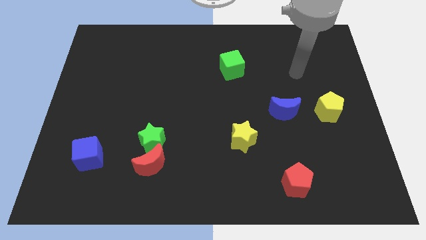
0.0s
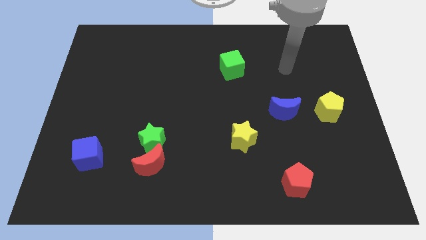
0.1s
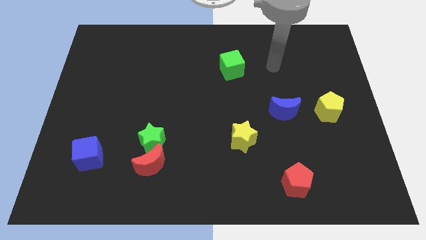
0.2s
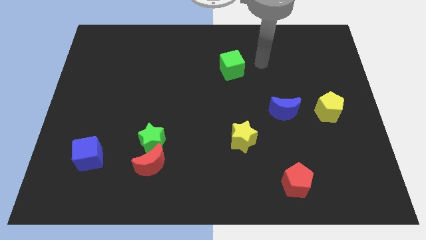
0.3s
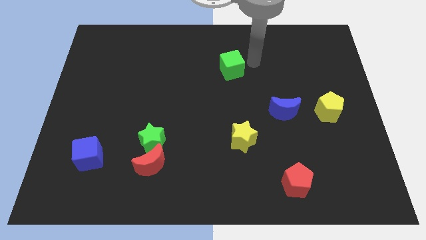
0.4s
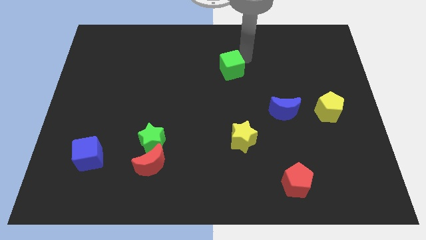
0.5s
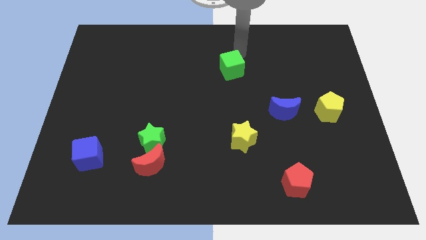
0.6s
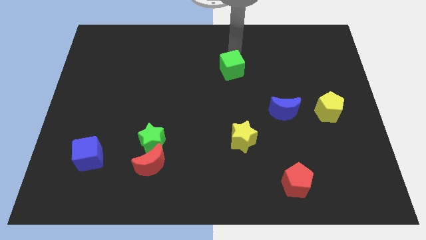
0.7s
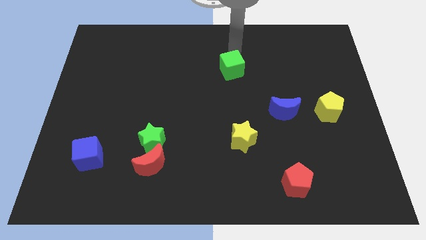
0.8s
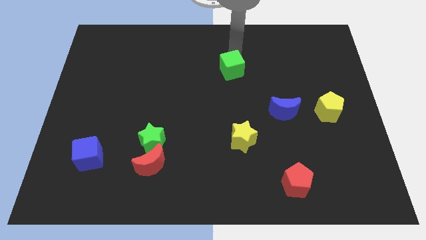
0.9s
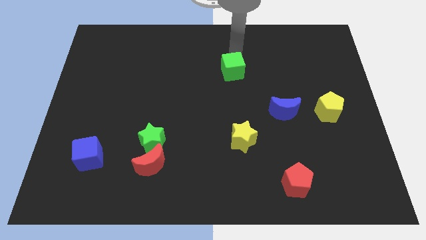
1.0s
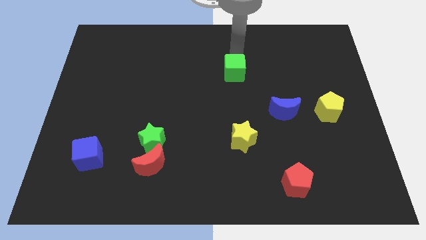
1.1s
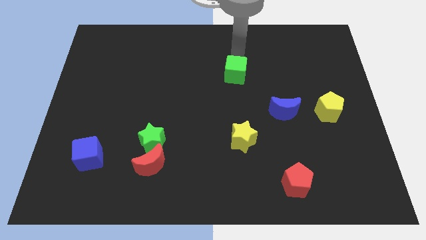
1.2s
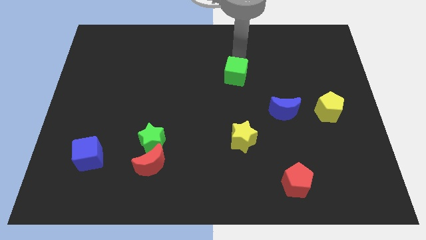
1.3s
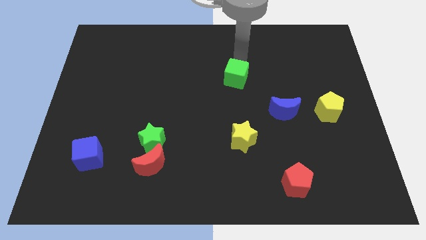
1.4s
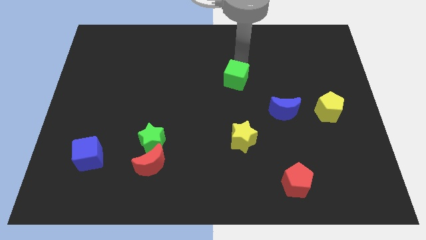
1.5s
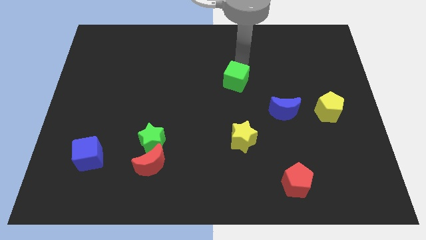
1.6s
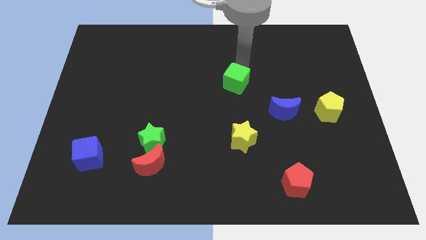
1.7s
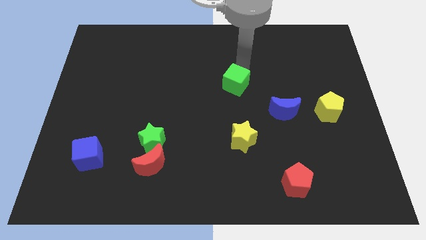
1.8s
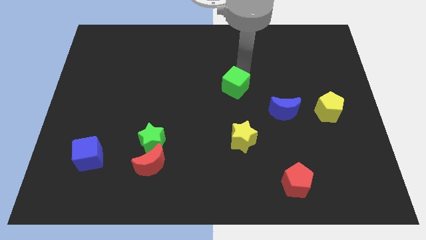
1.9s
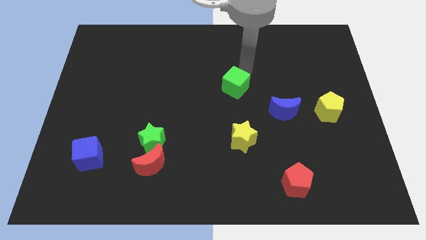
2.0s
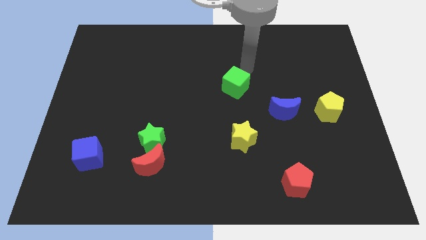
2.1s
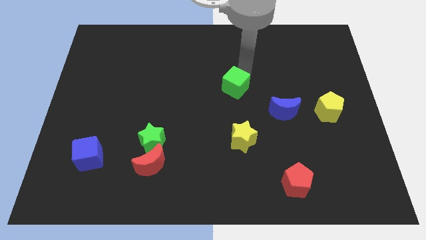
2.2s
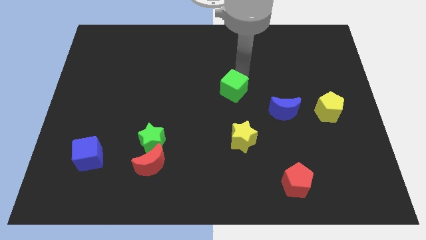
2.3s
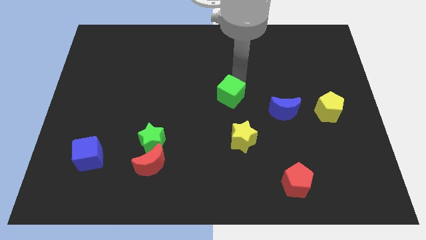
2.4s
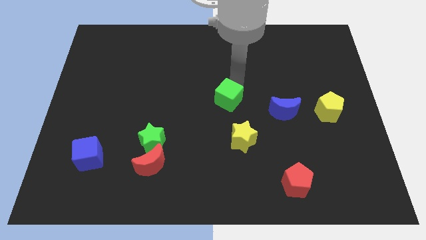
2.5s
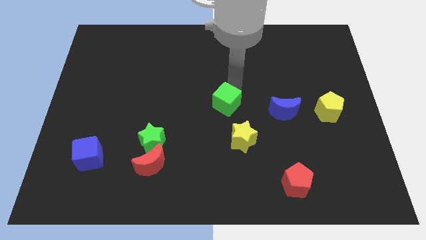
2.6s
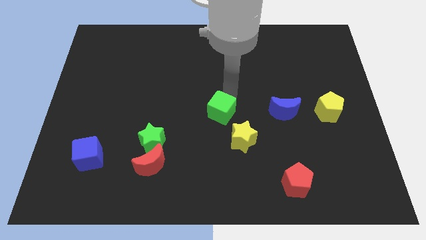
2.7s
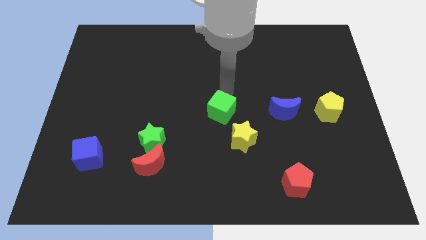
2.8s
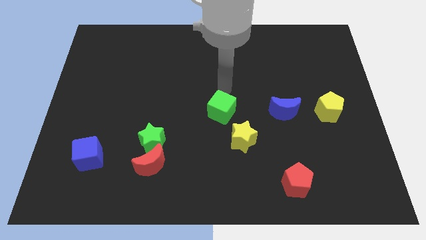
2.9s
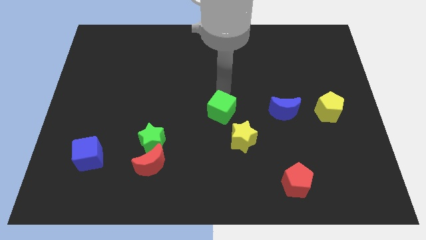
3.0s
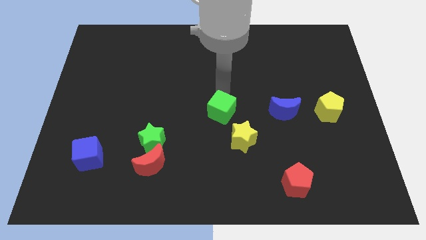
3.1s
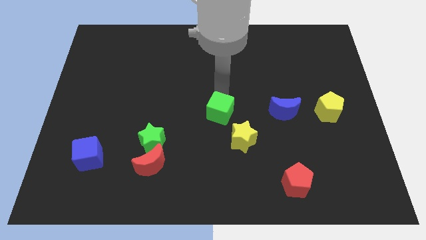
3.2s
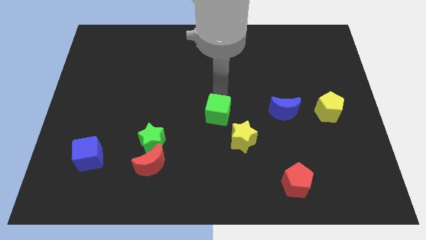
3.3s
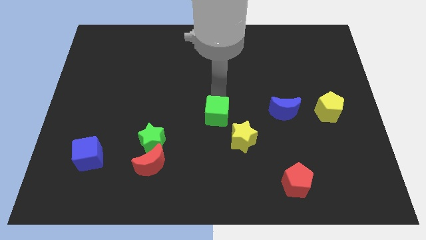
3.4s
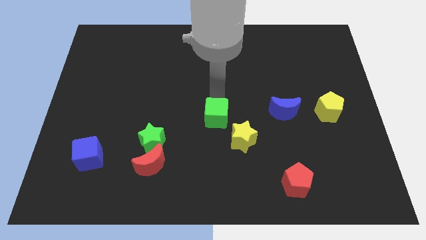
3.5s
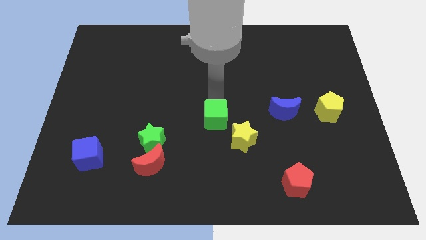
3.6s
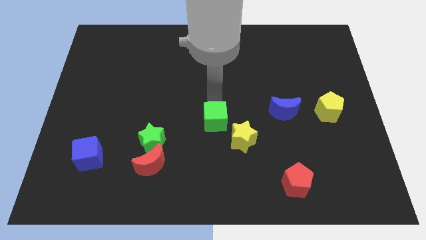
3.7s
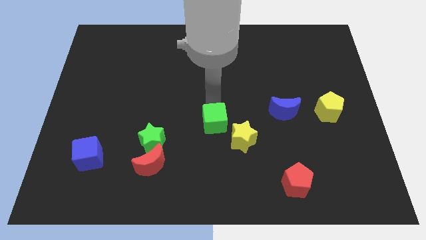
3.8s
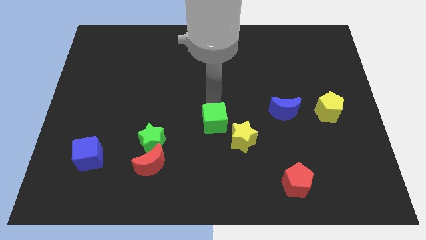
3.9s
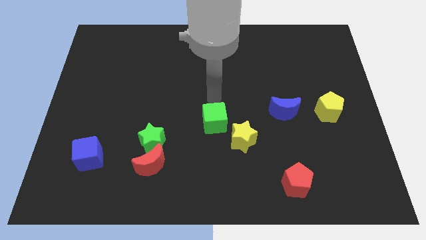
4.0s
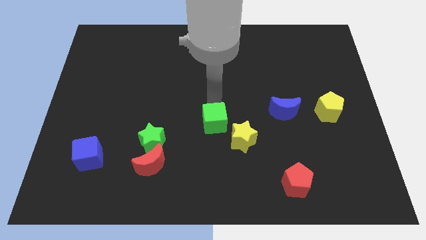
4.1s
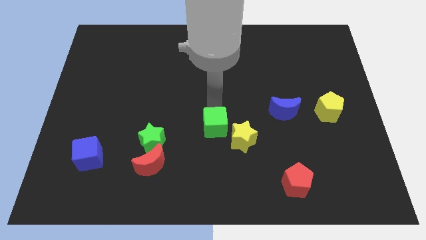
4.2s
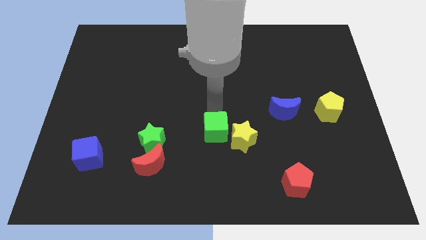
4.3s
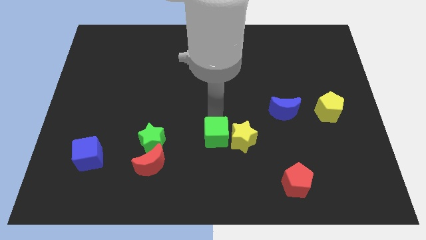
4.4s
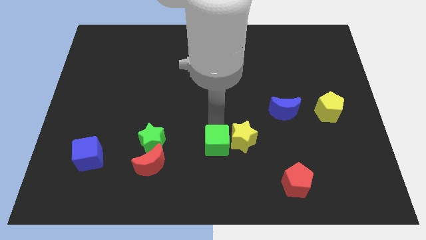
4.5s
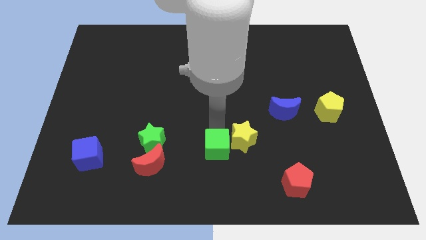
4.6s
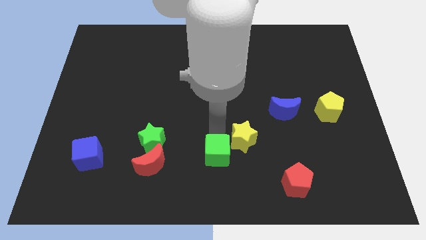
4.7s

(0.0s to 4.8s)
slide the green cube to the bottom

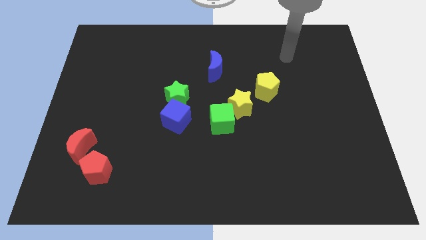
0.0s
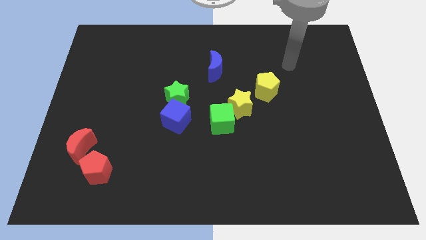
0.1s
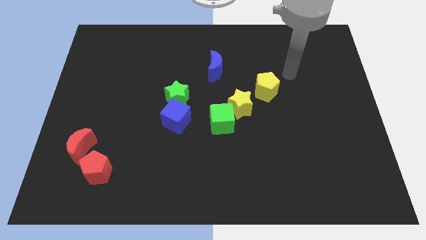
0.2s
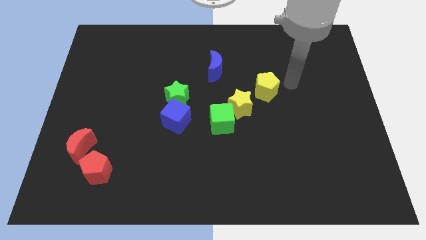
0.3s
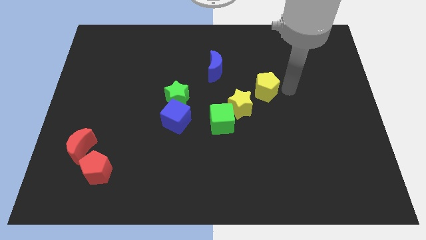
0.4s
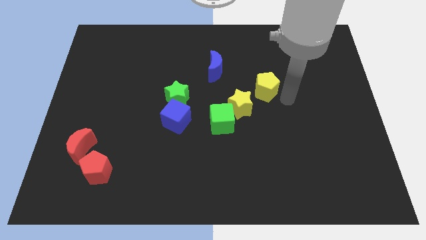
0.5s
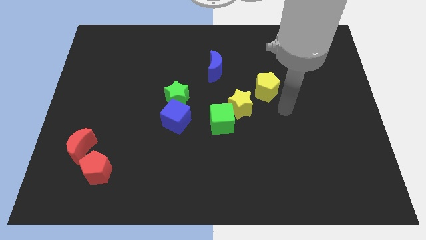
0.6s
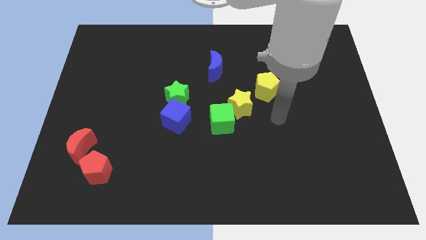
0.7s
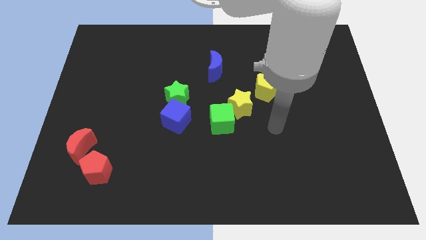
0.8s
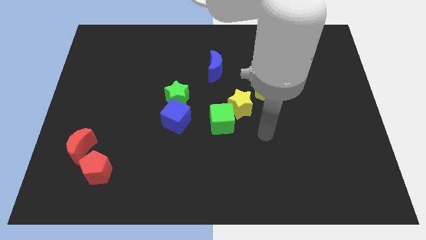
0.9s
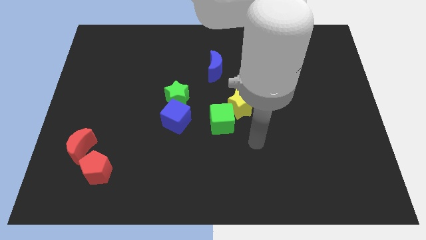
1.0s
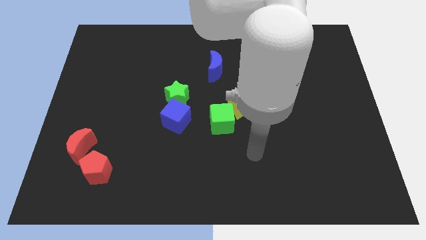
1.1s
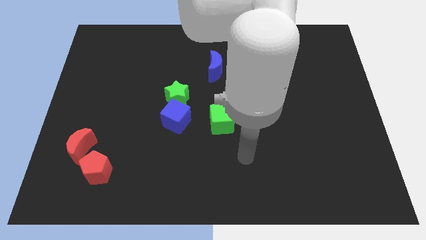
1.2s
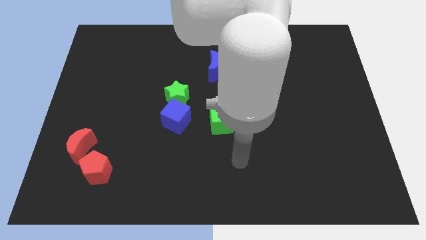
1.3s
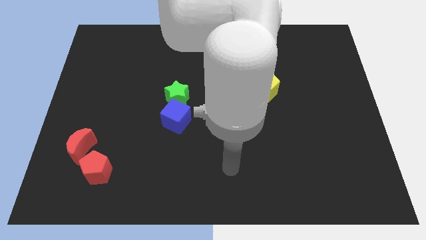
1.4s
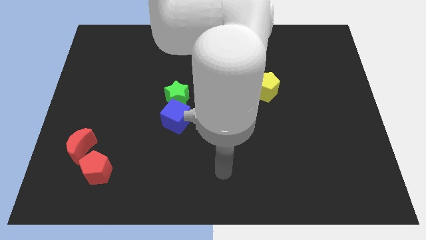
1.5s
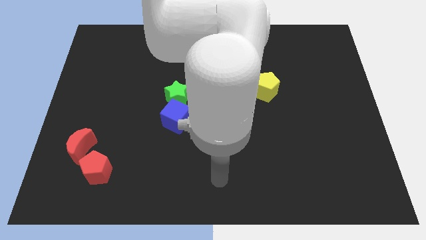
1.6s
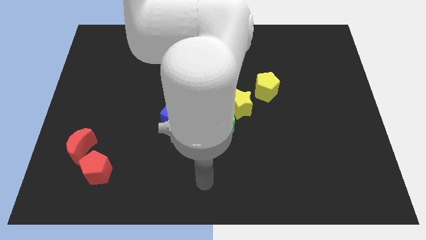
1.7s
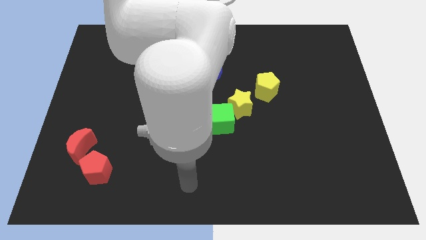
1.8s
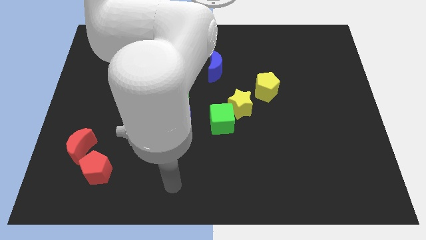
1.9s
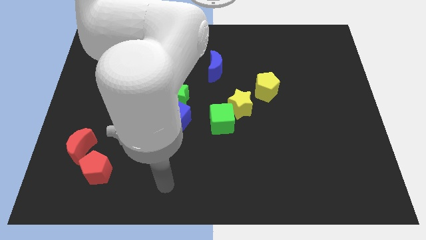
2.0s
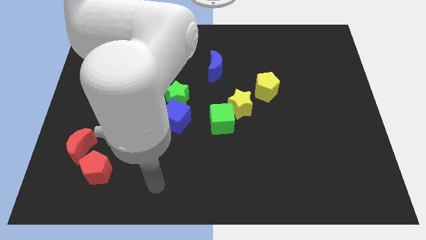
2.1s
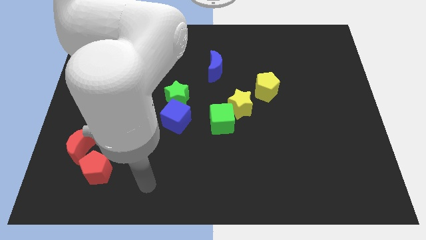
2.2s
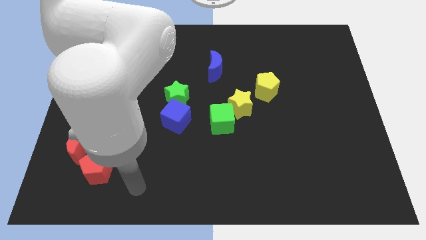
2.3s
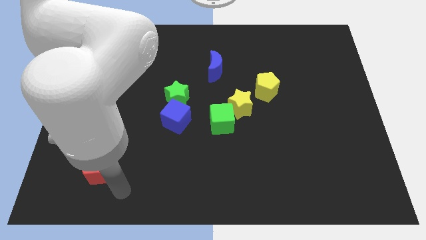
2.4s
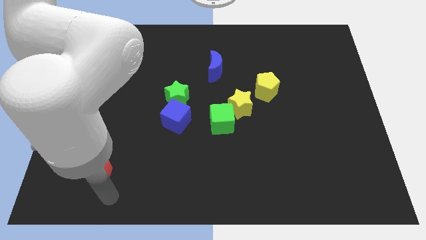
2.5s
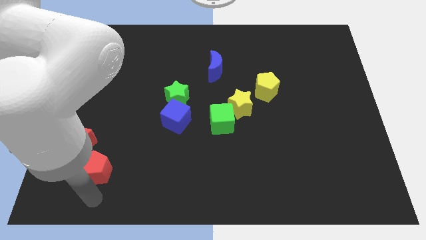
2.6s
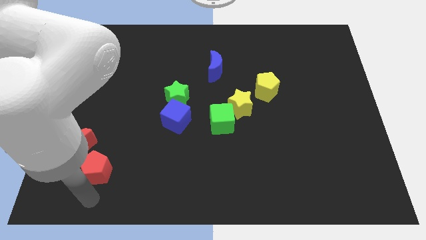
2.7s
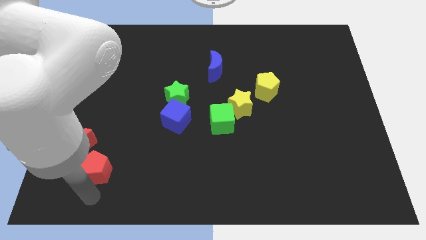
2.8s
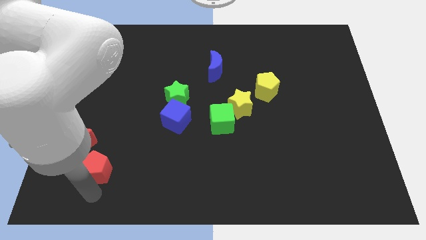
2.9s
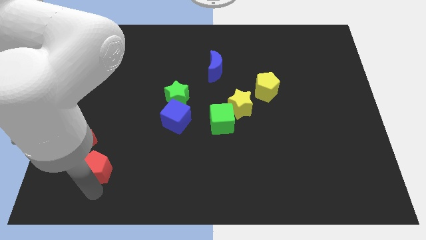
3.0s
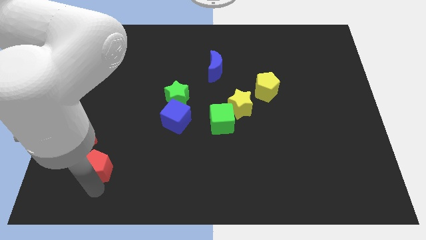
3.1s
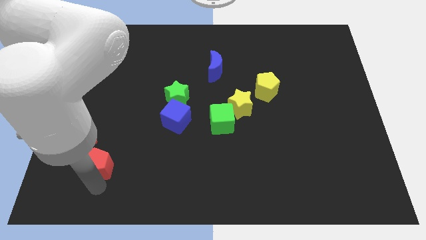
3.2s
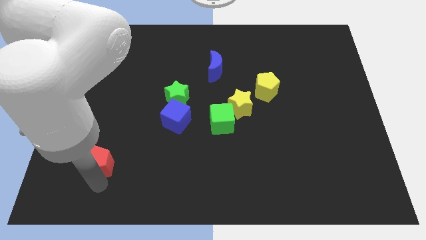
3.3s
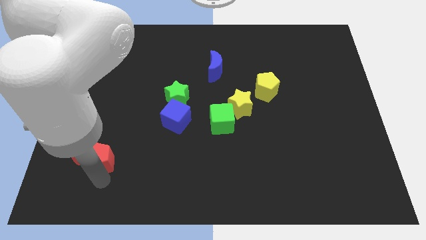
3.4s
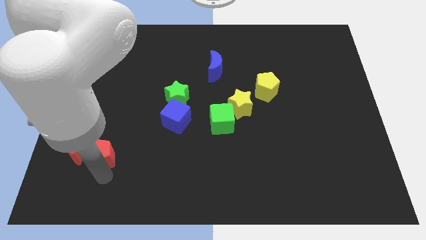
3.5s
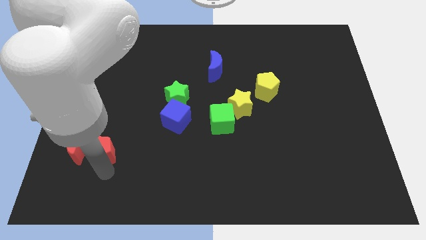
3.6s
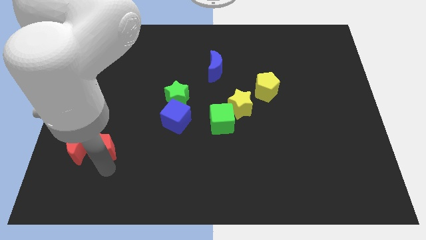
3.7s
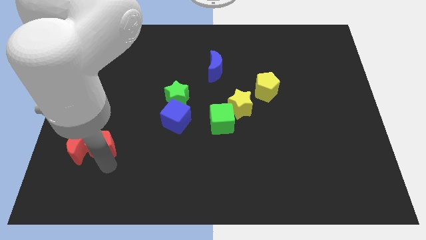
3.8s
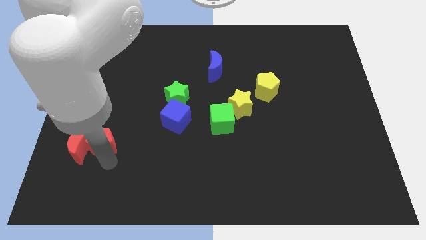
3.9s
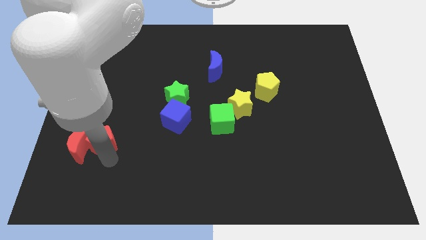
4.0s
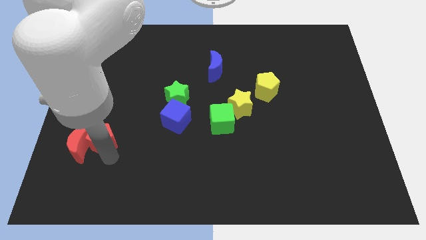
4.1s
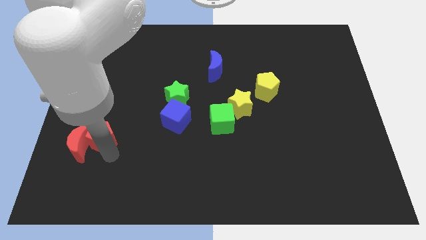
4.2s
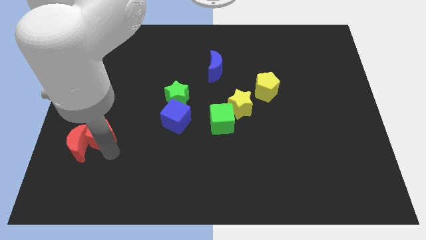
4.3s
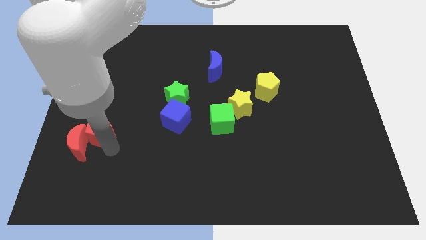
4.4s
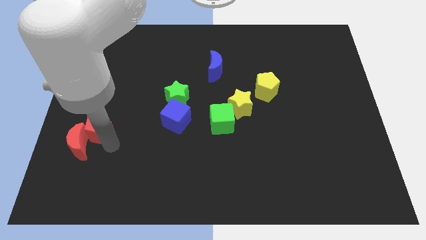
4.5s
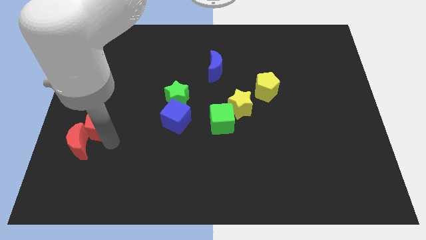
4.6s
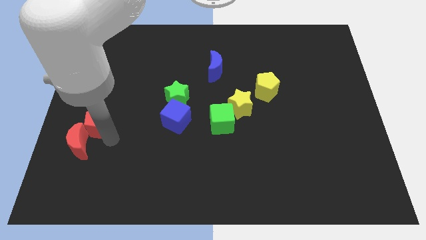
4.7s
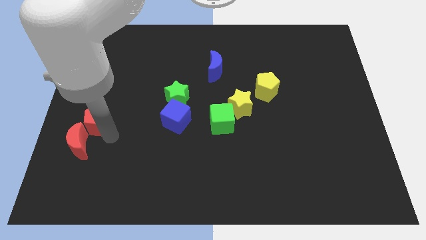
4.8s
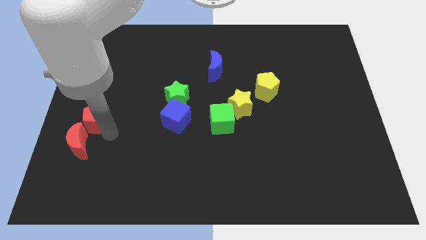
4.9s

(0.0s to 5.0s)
move the red pentagon to the left side
